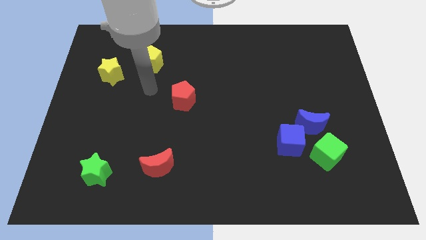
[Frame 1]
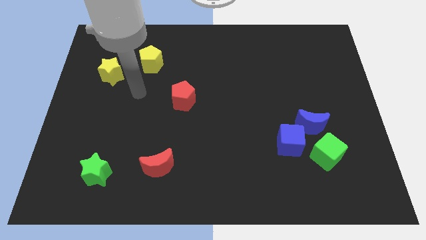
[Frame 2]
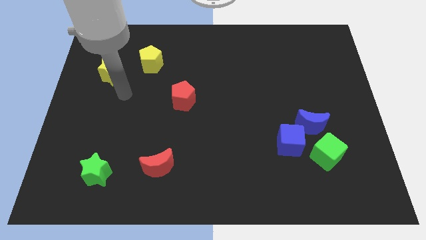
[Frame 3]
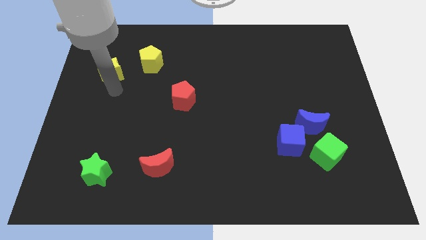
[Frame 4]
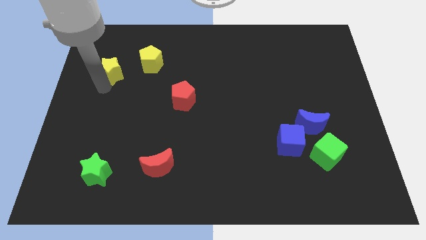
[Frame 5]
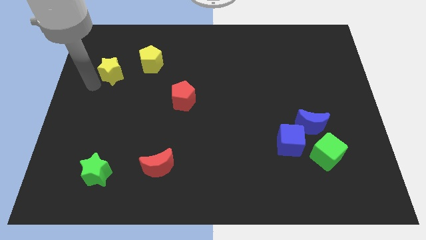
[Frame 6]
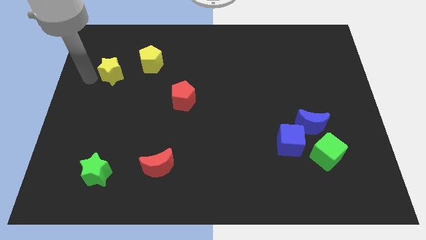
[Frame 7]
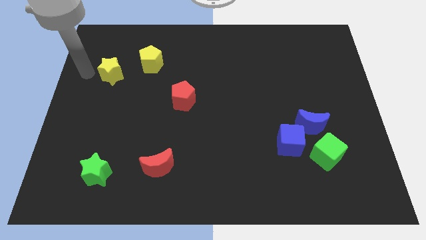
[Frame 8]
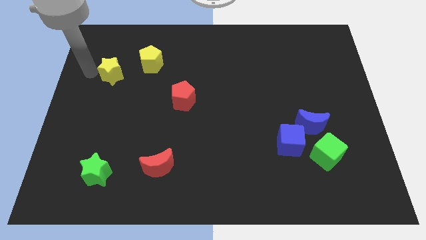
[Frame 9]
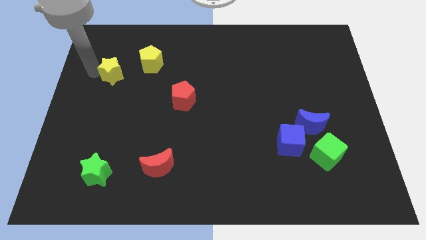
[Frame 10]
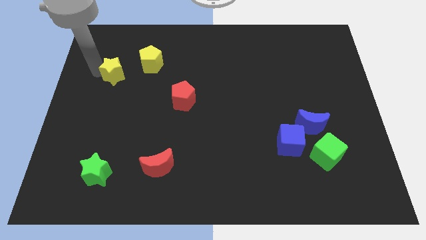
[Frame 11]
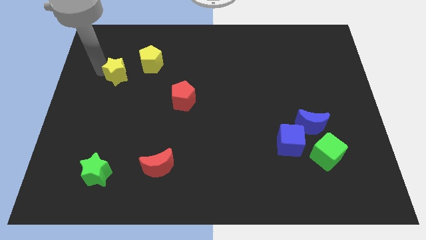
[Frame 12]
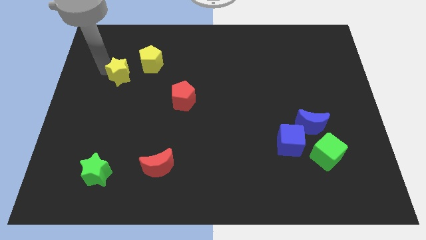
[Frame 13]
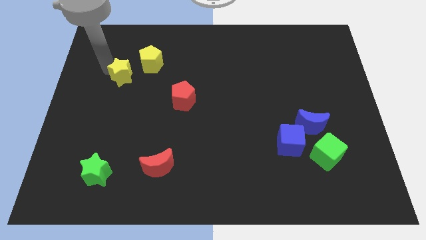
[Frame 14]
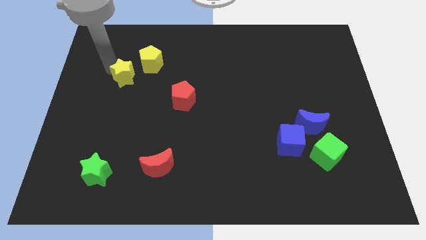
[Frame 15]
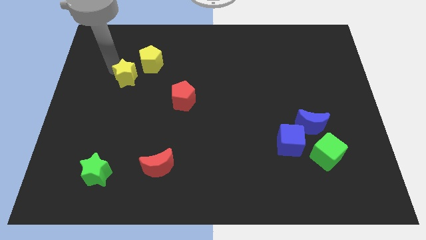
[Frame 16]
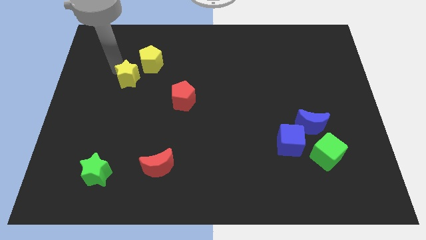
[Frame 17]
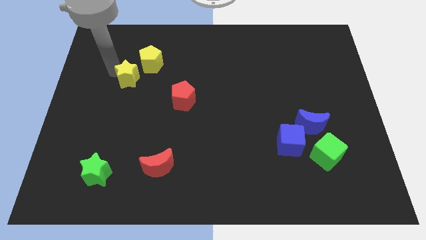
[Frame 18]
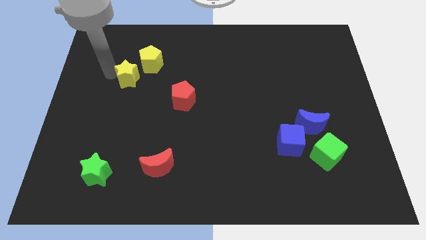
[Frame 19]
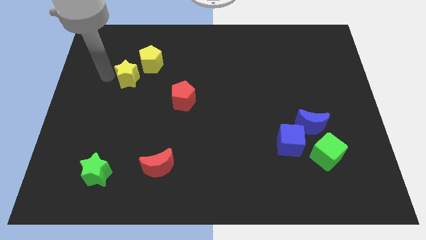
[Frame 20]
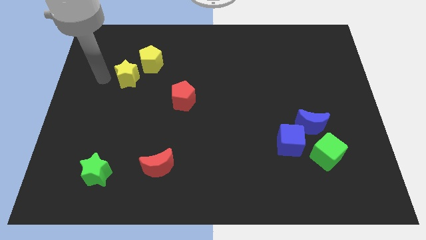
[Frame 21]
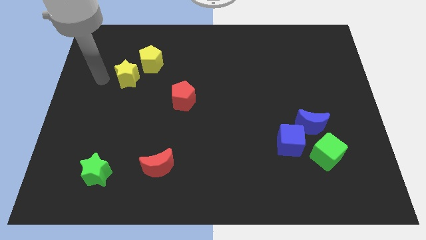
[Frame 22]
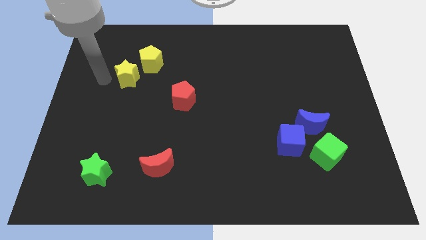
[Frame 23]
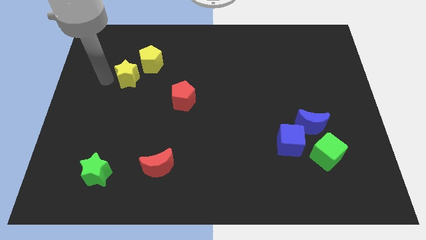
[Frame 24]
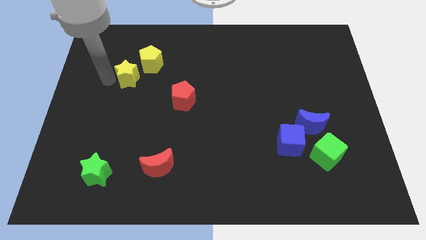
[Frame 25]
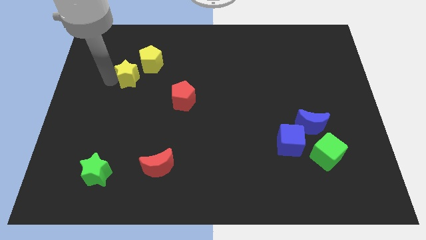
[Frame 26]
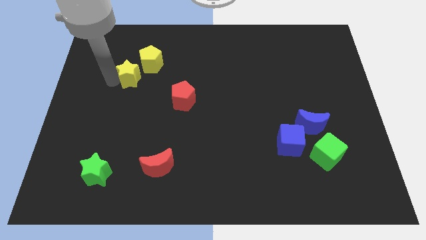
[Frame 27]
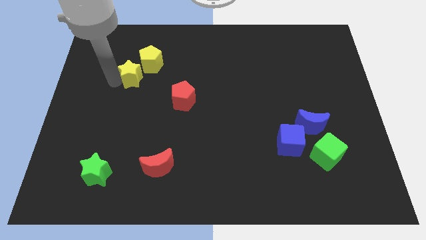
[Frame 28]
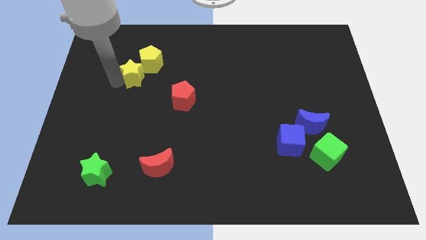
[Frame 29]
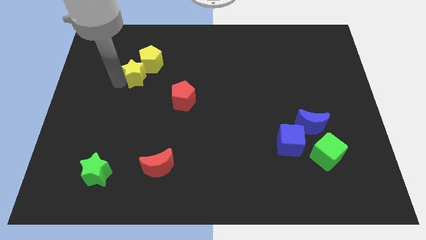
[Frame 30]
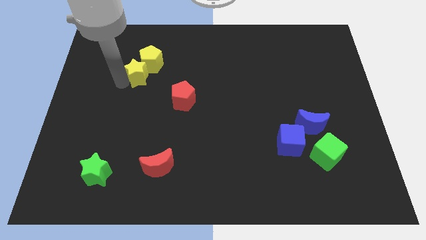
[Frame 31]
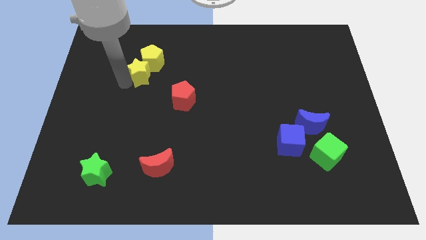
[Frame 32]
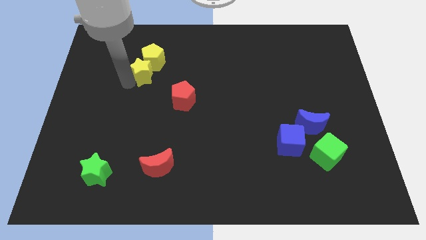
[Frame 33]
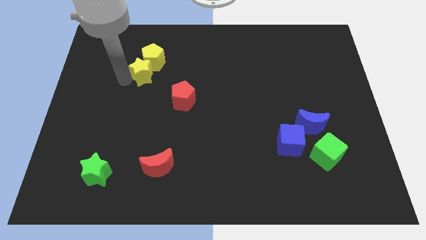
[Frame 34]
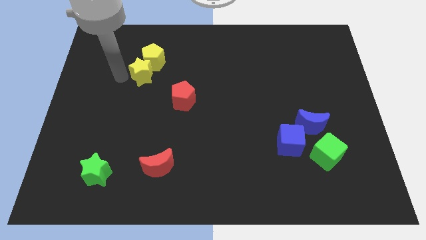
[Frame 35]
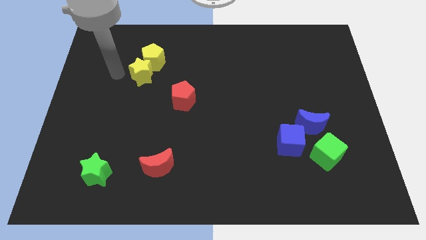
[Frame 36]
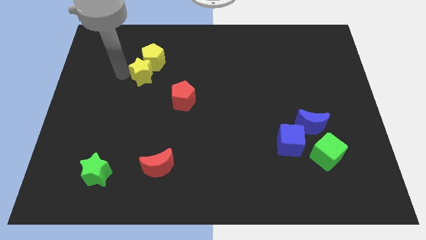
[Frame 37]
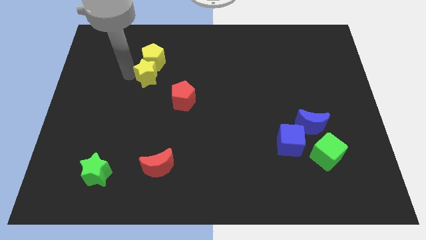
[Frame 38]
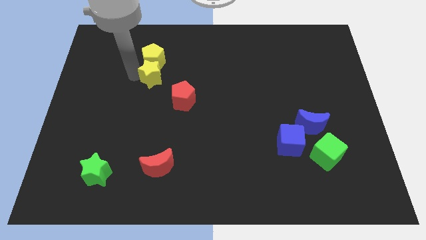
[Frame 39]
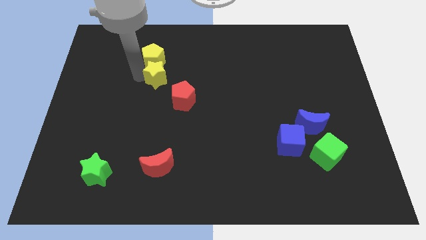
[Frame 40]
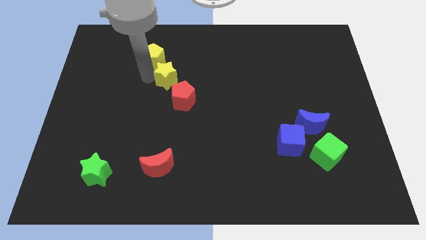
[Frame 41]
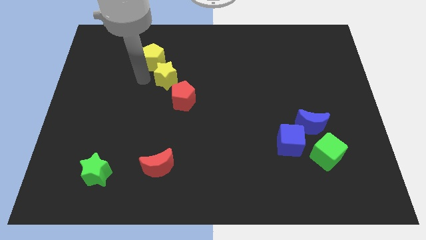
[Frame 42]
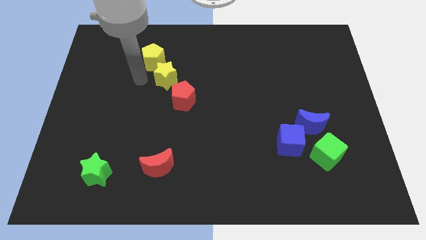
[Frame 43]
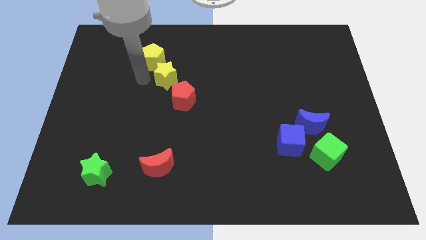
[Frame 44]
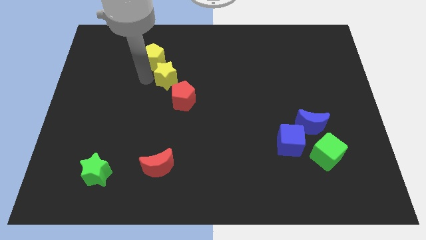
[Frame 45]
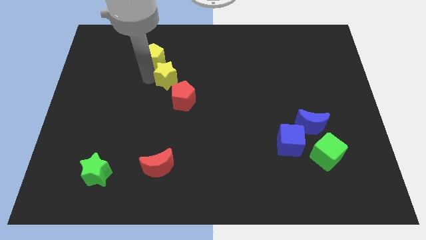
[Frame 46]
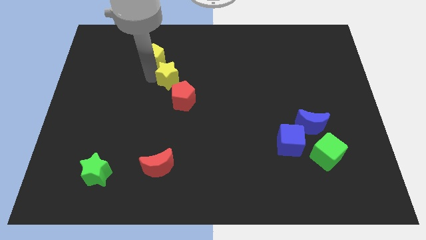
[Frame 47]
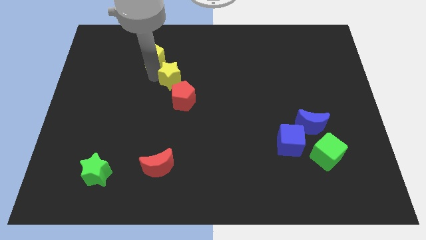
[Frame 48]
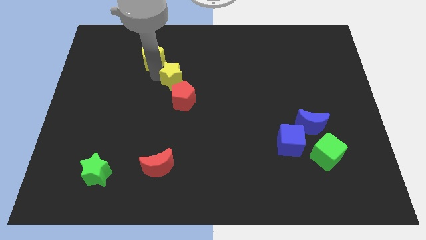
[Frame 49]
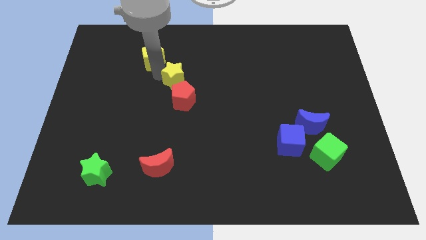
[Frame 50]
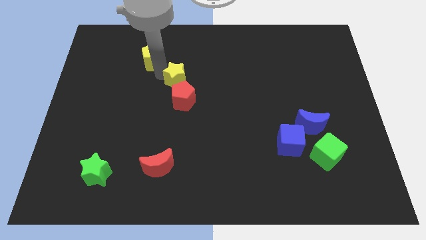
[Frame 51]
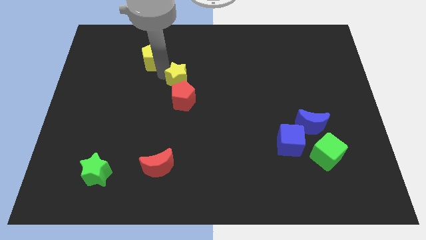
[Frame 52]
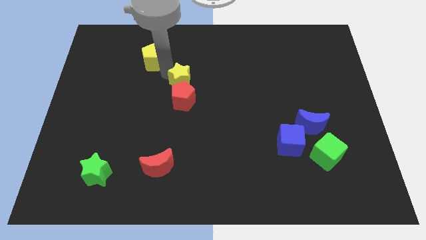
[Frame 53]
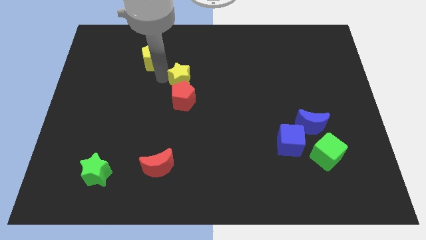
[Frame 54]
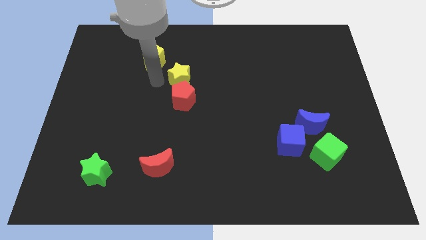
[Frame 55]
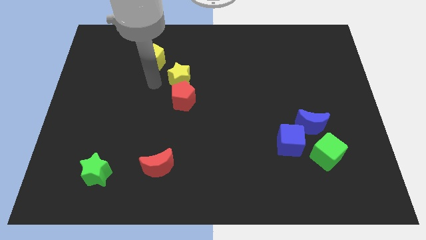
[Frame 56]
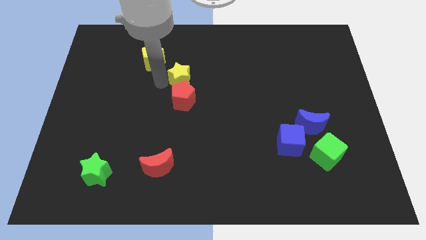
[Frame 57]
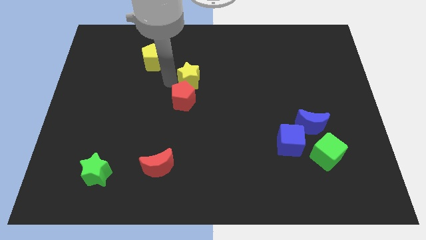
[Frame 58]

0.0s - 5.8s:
push the yellow star to the right

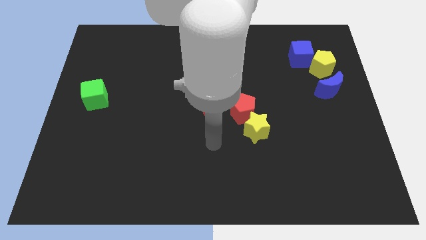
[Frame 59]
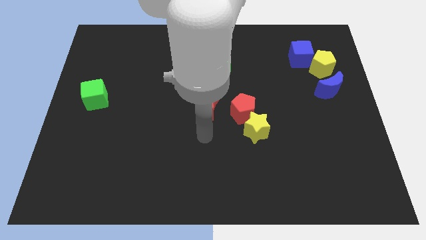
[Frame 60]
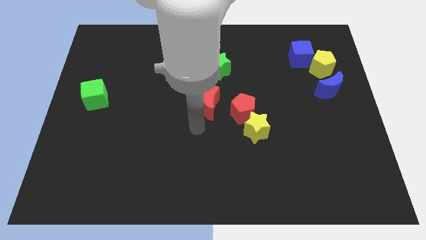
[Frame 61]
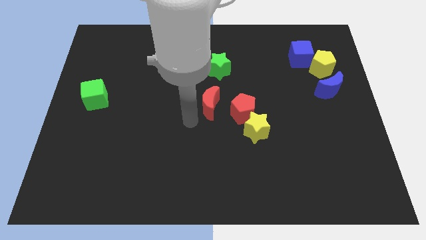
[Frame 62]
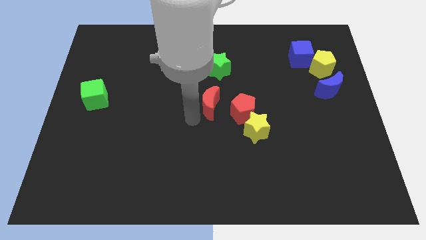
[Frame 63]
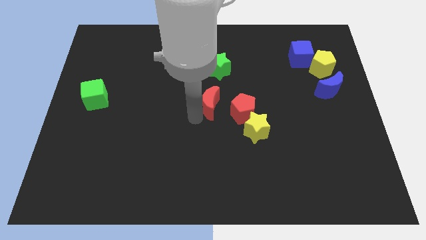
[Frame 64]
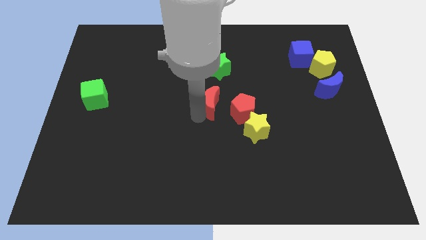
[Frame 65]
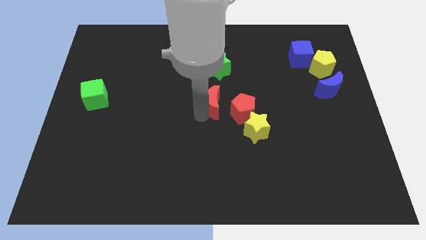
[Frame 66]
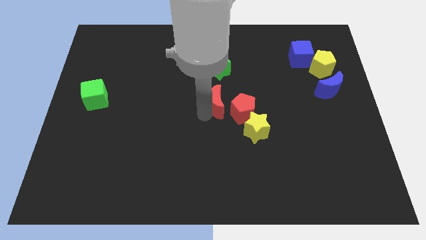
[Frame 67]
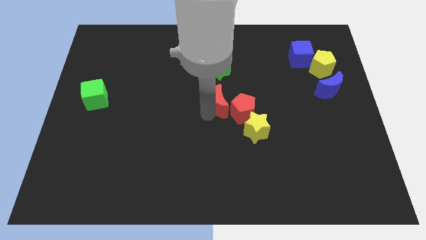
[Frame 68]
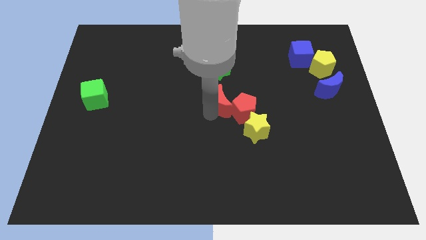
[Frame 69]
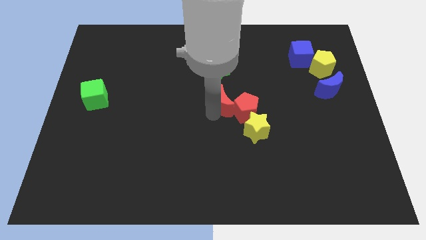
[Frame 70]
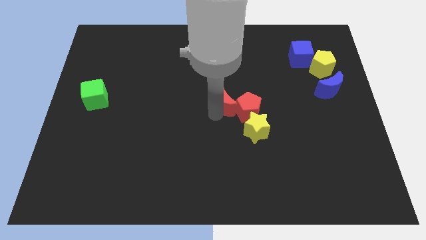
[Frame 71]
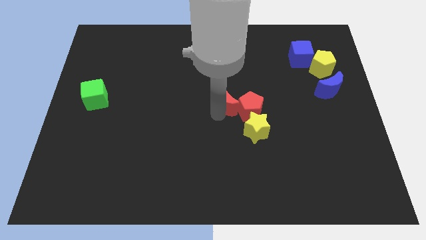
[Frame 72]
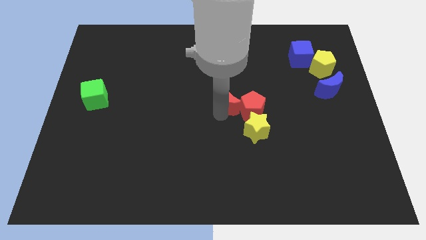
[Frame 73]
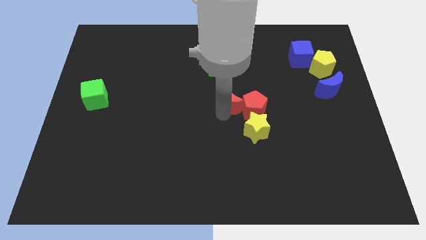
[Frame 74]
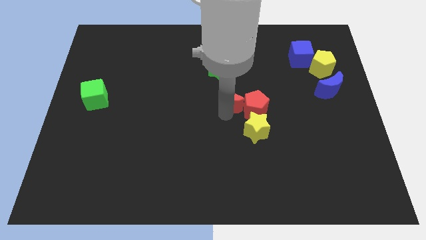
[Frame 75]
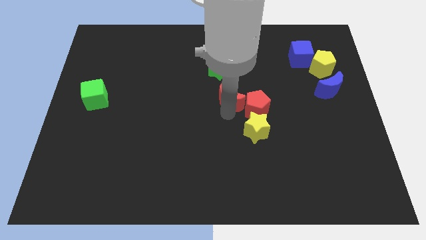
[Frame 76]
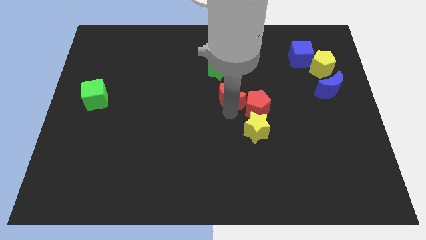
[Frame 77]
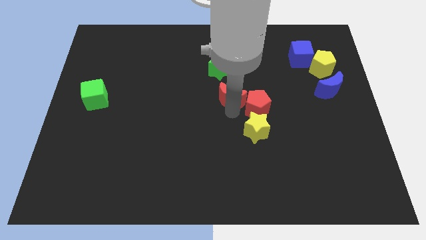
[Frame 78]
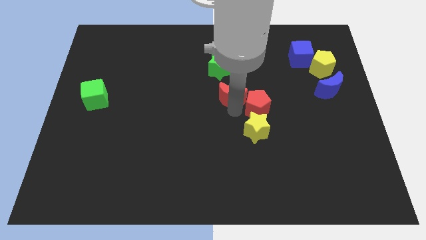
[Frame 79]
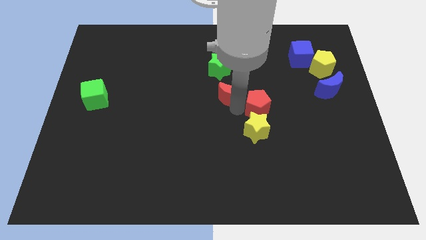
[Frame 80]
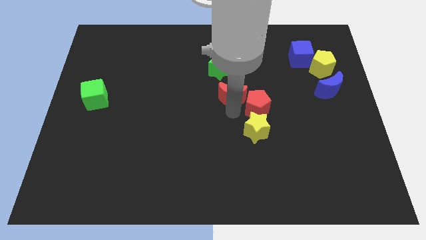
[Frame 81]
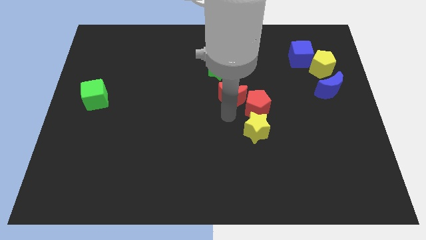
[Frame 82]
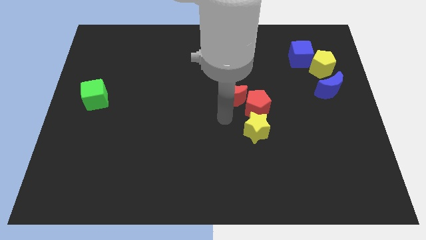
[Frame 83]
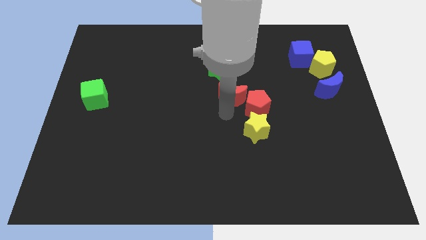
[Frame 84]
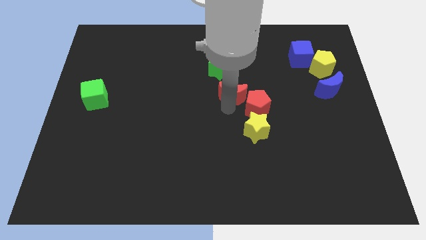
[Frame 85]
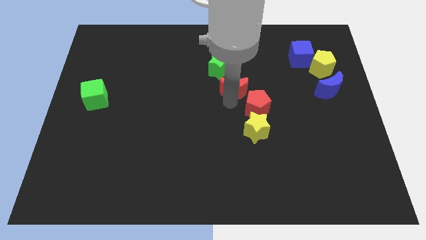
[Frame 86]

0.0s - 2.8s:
slide the red moon a little bit upwards and then to the right
